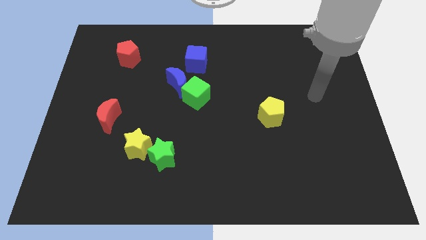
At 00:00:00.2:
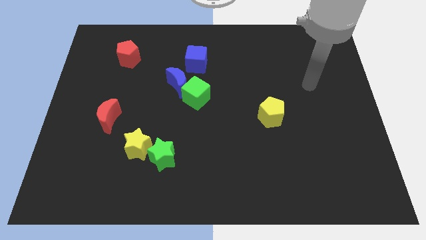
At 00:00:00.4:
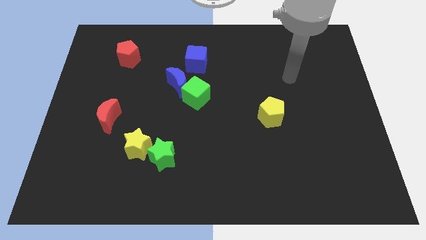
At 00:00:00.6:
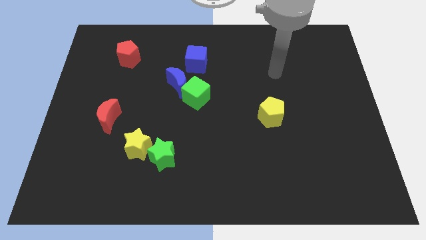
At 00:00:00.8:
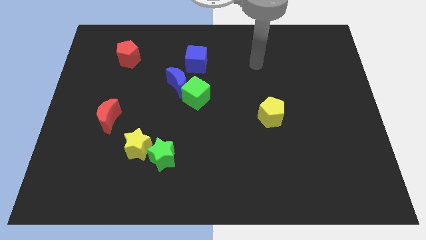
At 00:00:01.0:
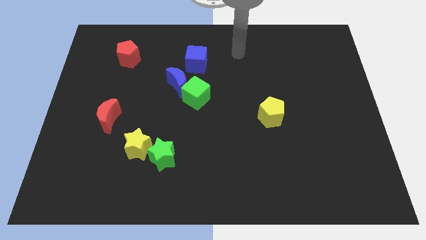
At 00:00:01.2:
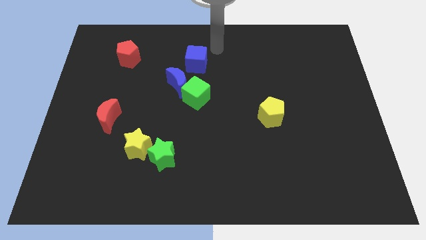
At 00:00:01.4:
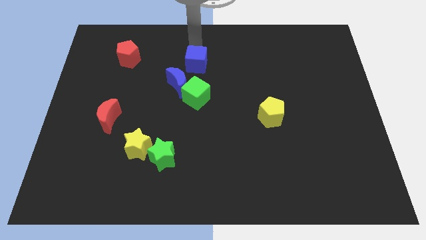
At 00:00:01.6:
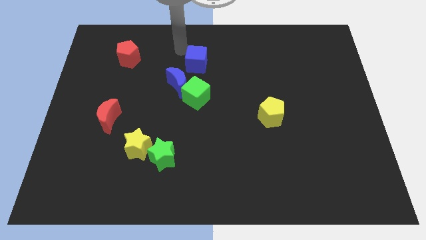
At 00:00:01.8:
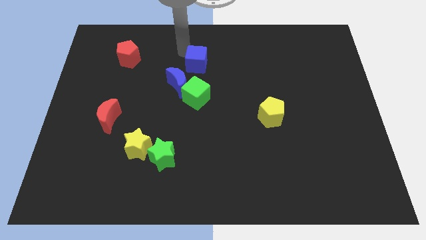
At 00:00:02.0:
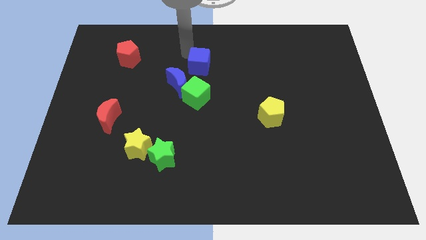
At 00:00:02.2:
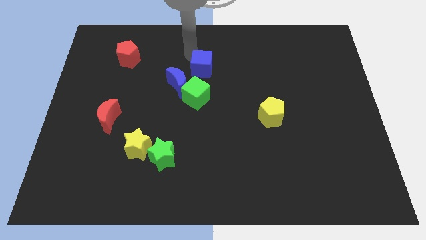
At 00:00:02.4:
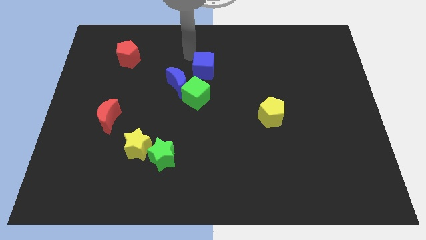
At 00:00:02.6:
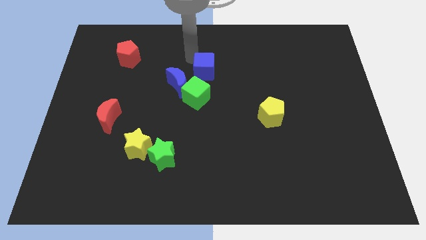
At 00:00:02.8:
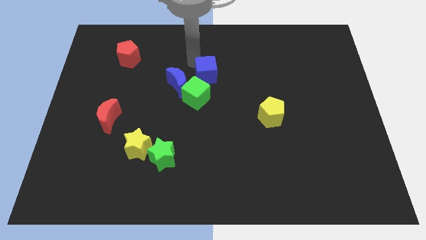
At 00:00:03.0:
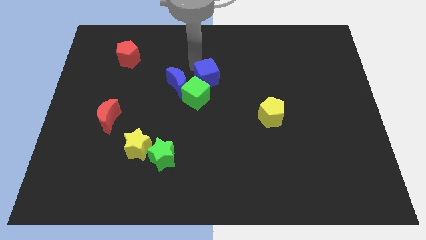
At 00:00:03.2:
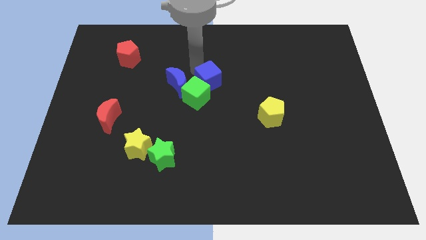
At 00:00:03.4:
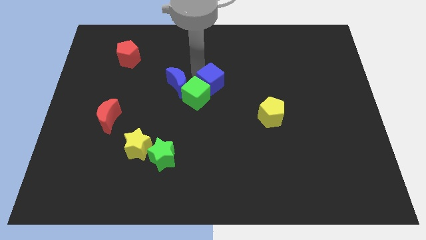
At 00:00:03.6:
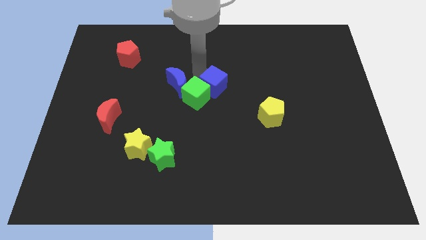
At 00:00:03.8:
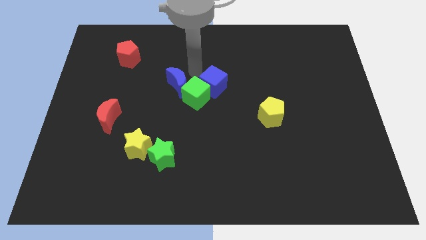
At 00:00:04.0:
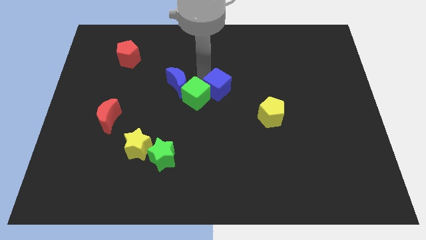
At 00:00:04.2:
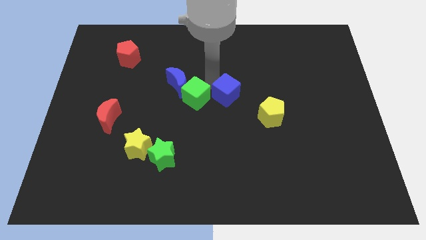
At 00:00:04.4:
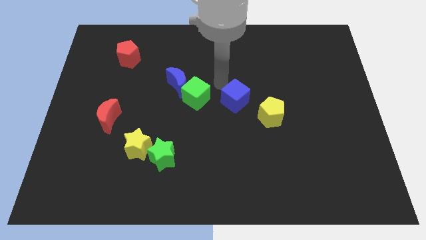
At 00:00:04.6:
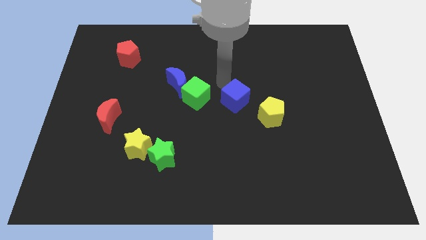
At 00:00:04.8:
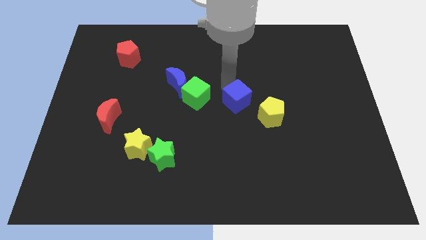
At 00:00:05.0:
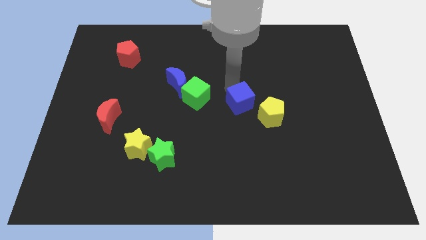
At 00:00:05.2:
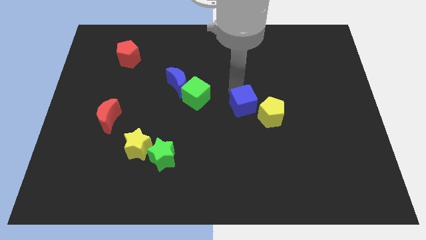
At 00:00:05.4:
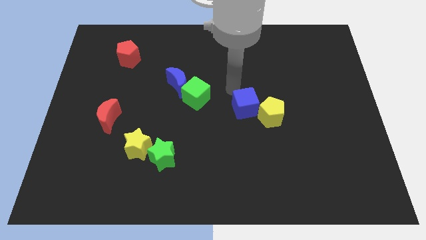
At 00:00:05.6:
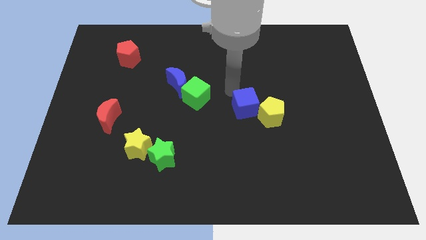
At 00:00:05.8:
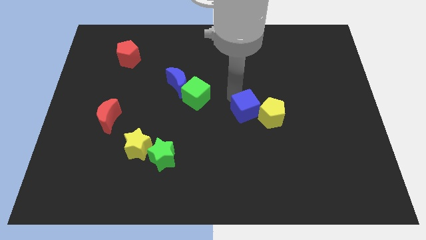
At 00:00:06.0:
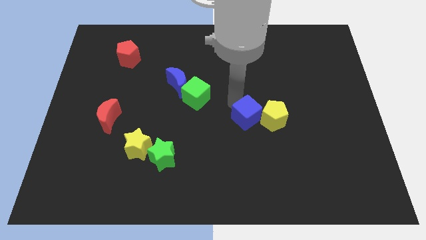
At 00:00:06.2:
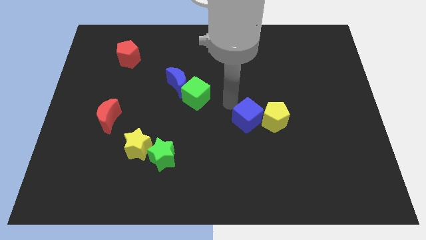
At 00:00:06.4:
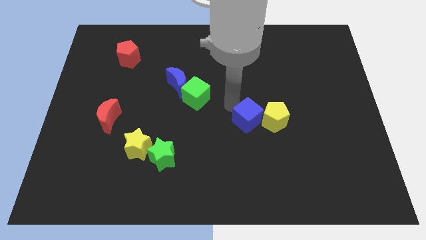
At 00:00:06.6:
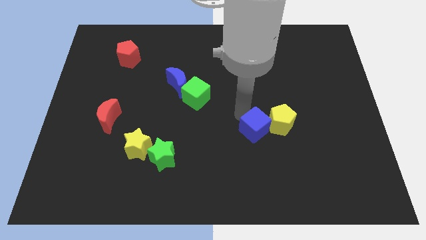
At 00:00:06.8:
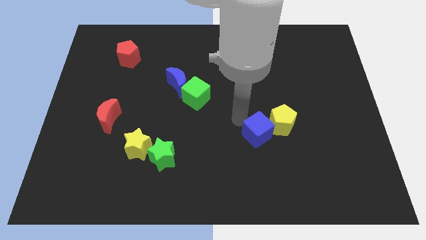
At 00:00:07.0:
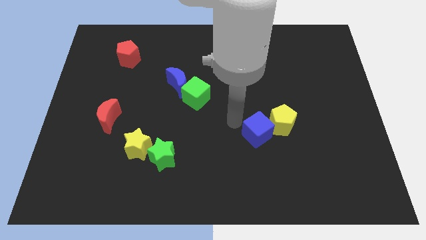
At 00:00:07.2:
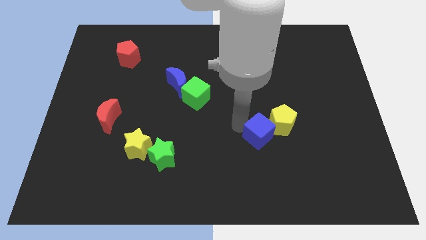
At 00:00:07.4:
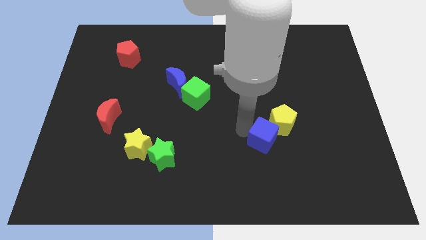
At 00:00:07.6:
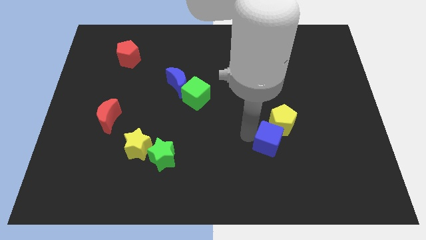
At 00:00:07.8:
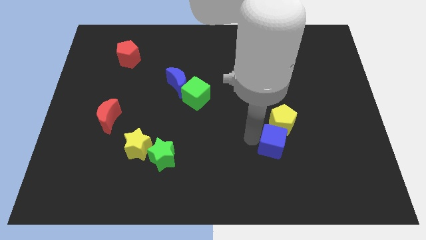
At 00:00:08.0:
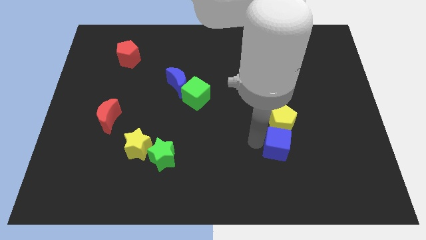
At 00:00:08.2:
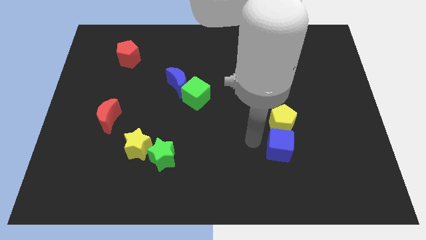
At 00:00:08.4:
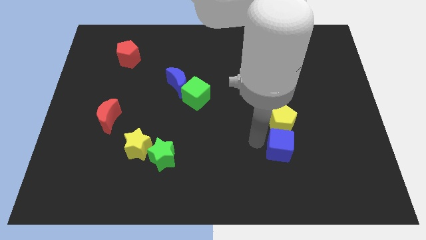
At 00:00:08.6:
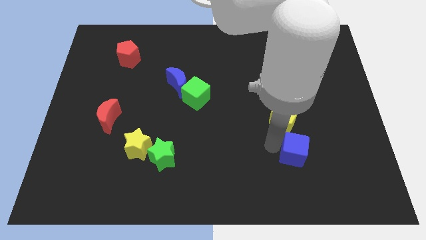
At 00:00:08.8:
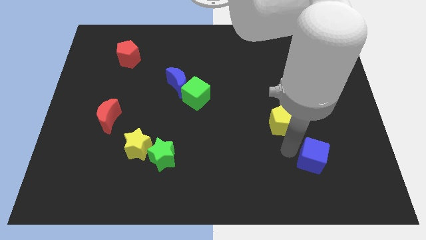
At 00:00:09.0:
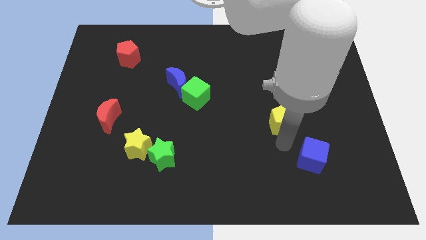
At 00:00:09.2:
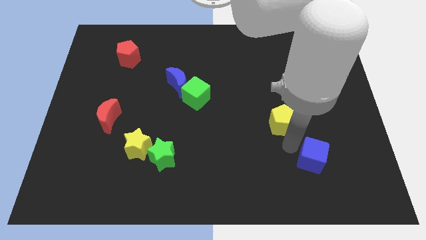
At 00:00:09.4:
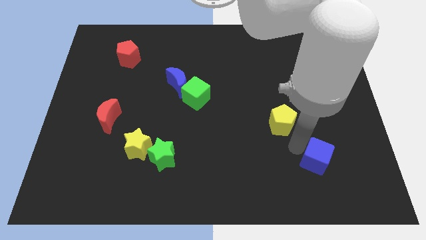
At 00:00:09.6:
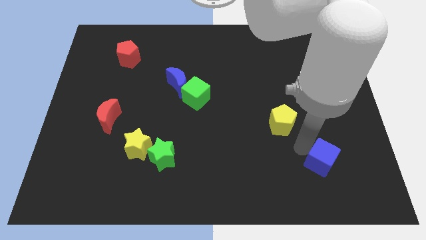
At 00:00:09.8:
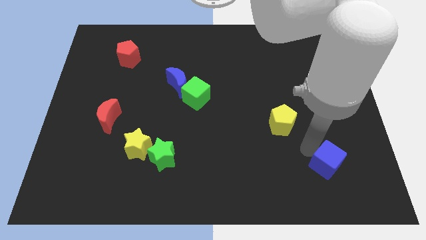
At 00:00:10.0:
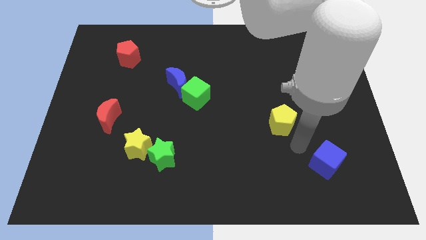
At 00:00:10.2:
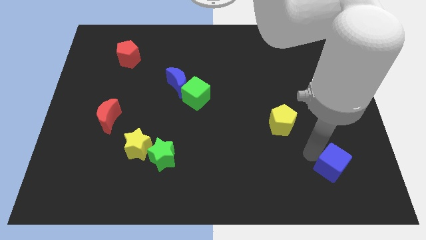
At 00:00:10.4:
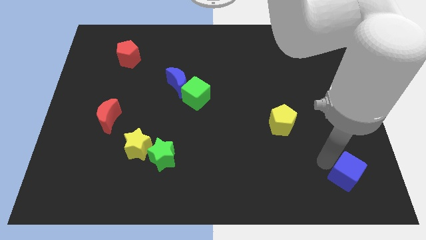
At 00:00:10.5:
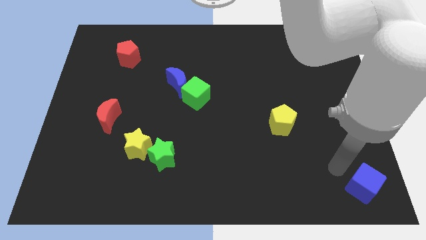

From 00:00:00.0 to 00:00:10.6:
put the blue cube to the bottom right
